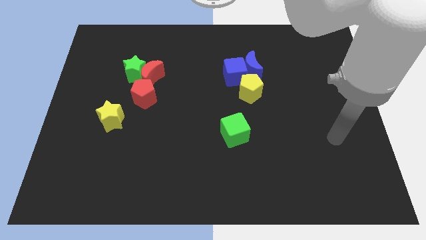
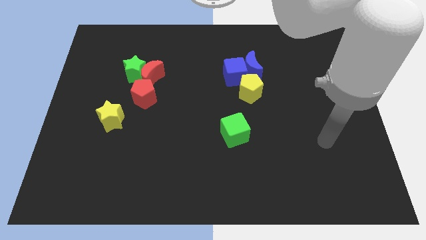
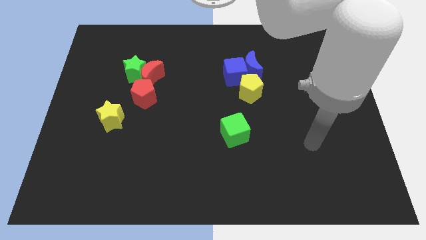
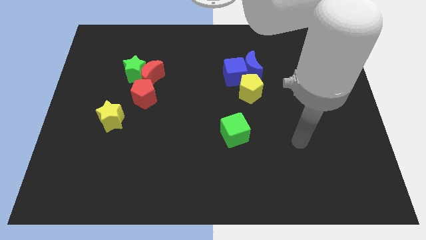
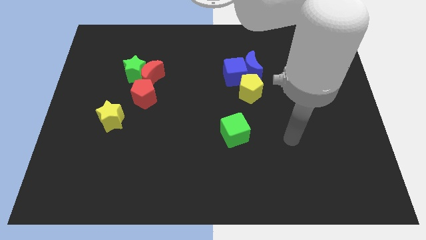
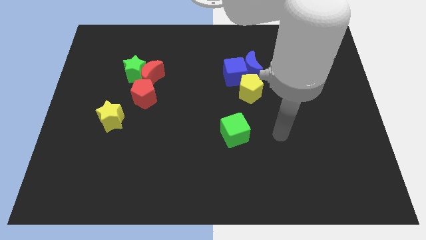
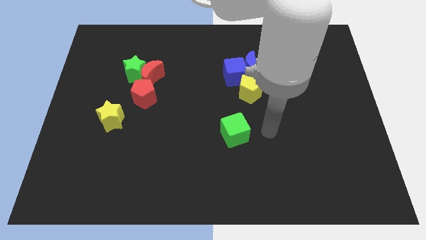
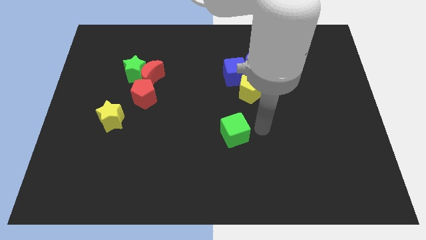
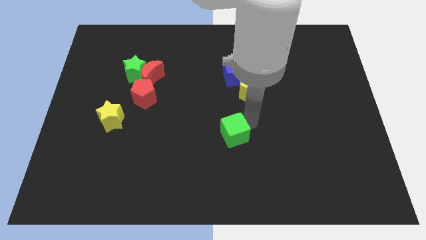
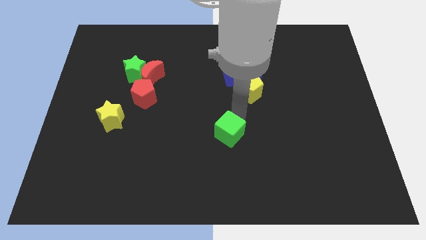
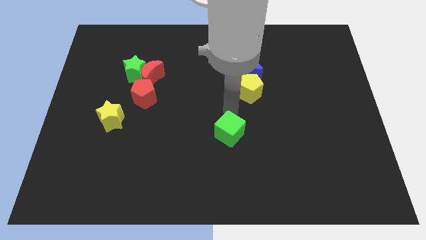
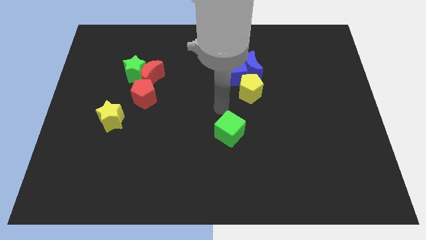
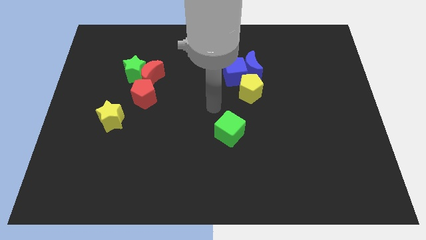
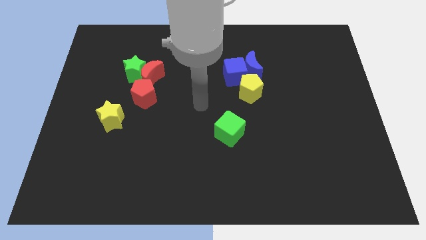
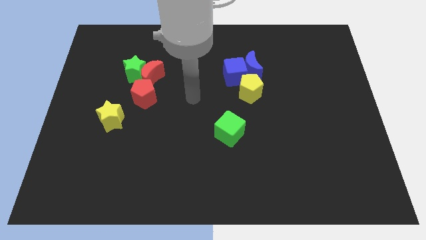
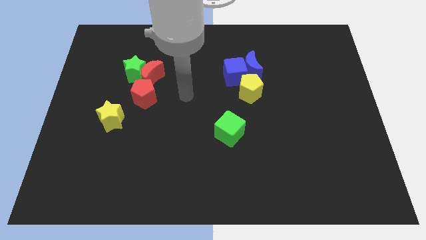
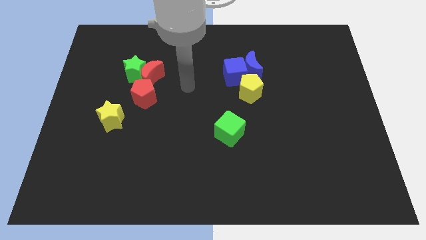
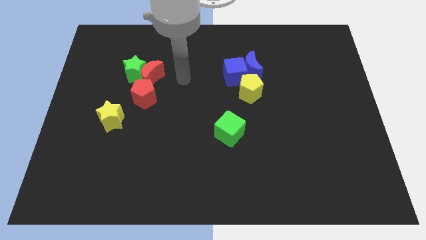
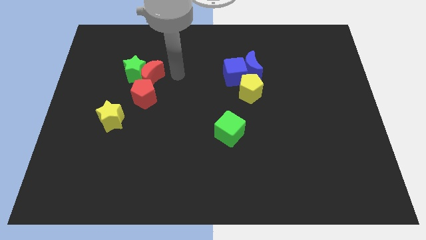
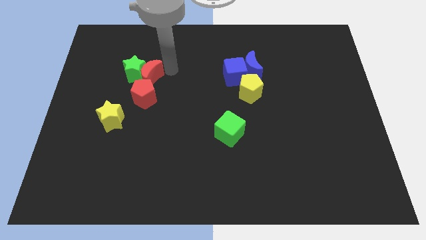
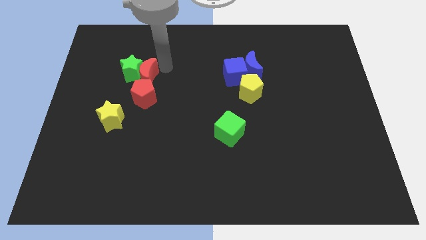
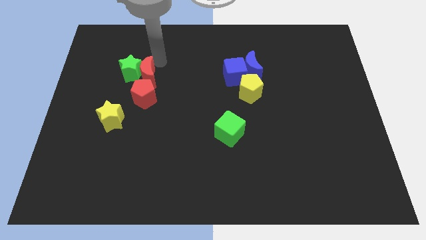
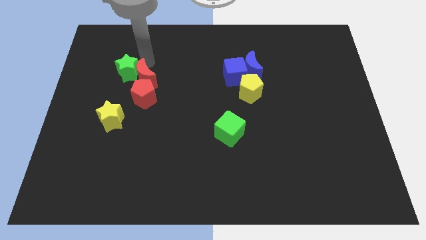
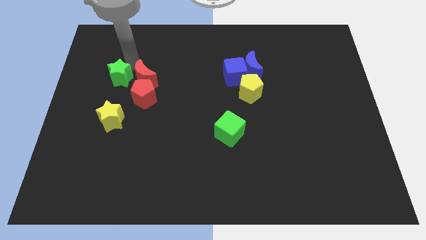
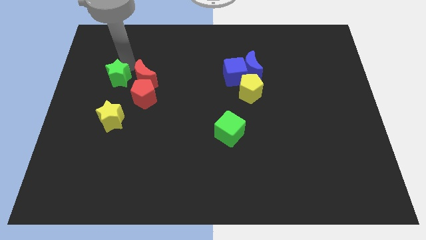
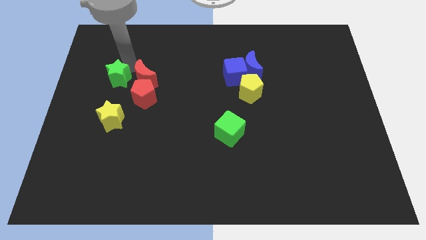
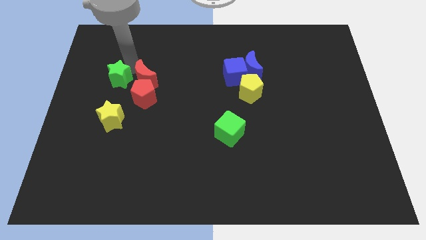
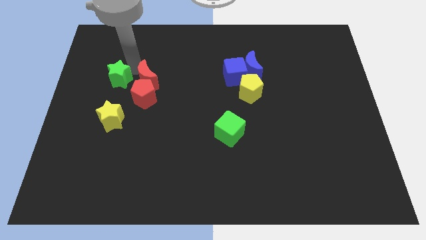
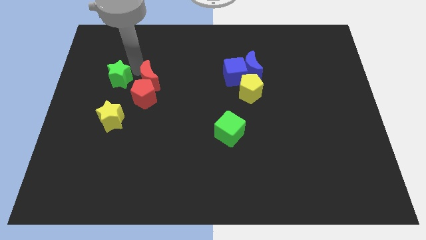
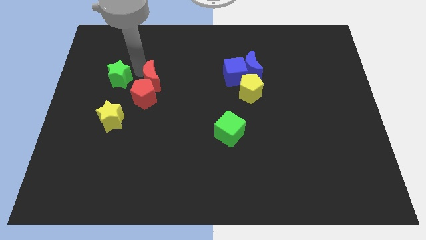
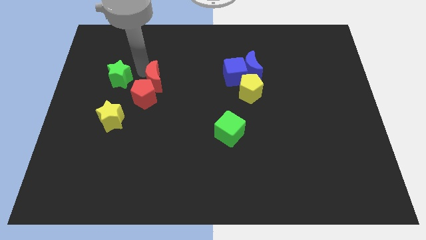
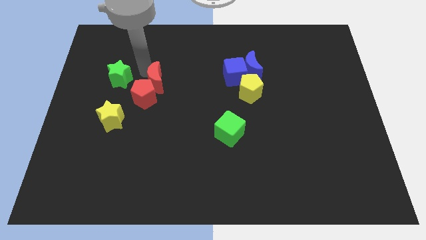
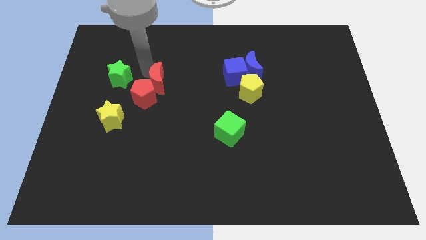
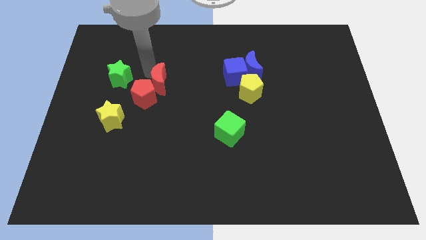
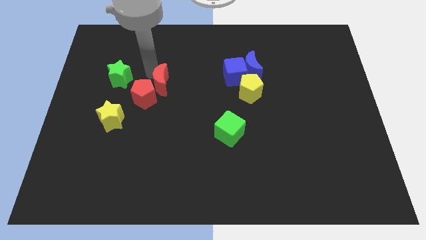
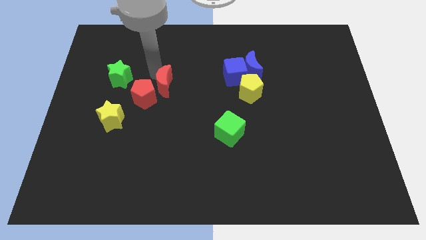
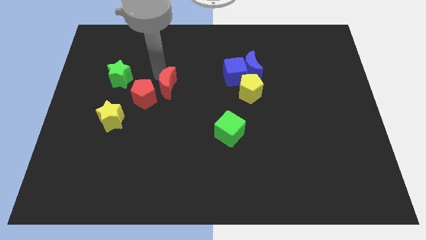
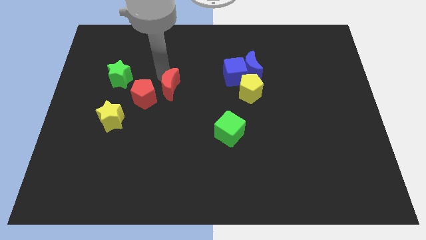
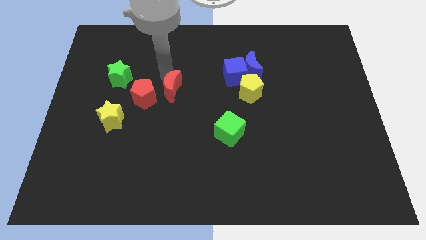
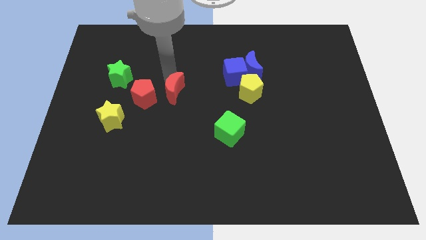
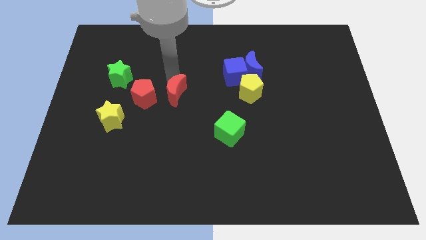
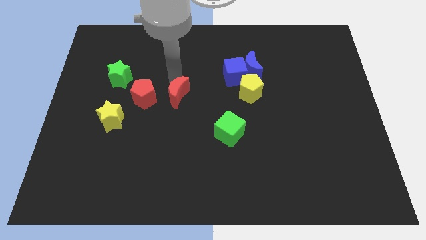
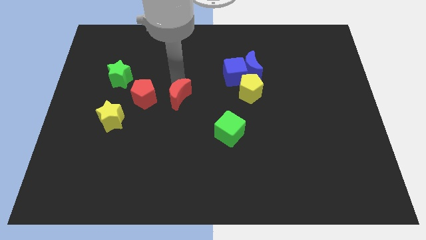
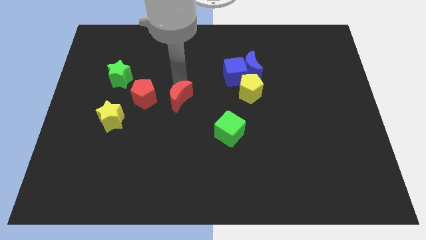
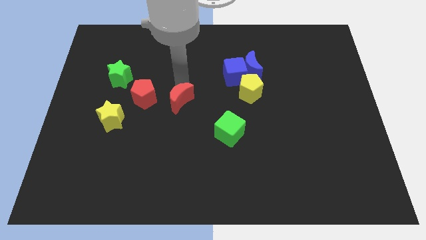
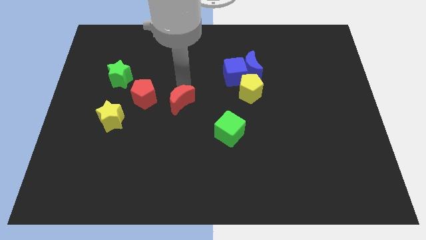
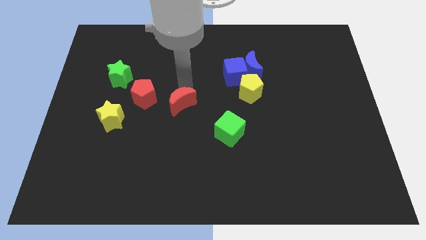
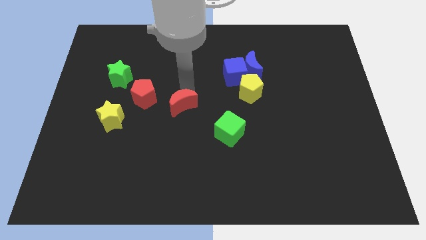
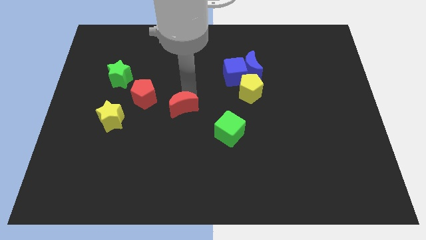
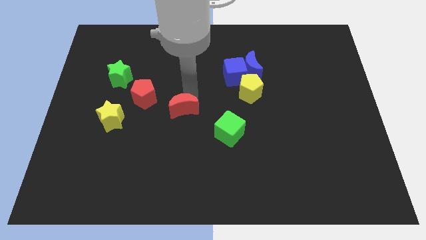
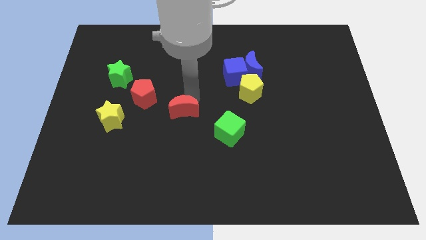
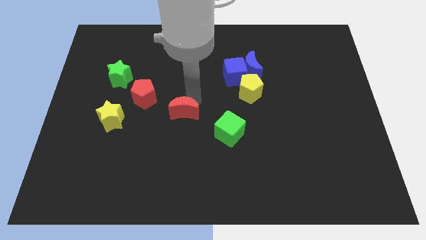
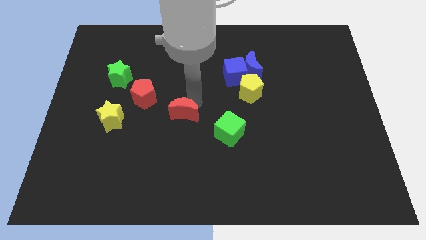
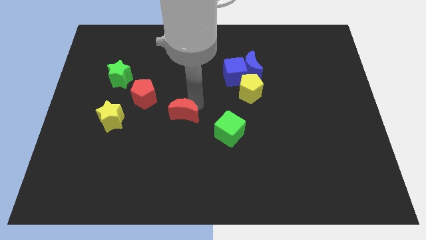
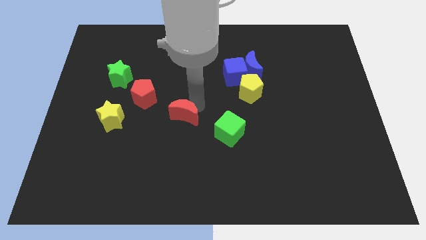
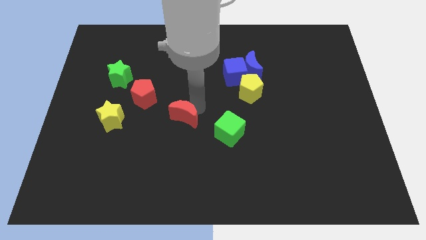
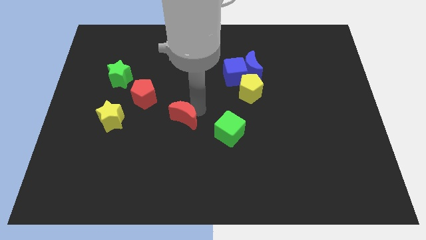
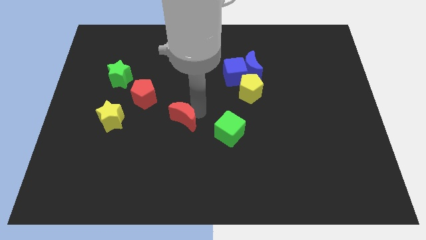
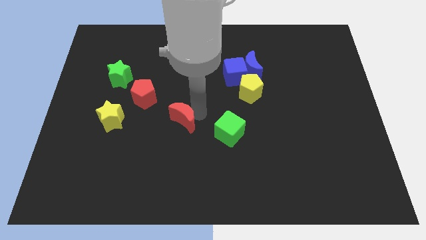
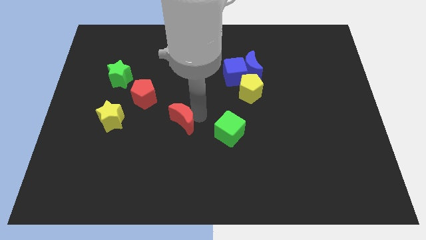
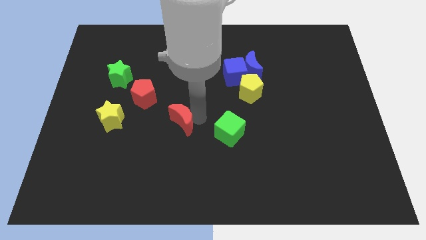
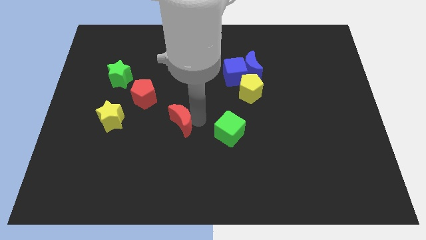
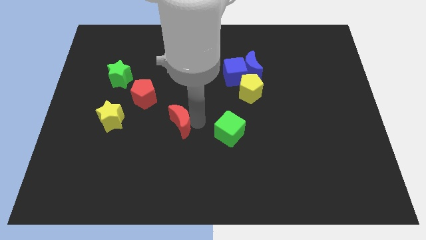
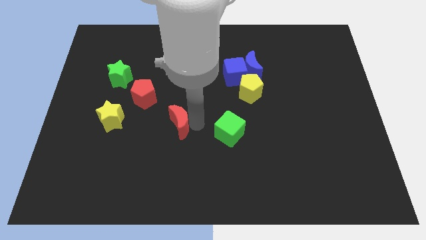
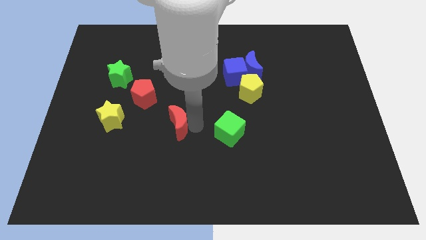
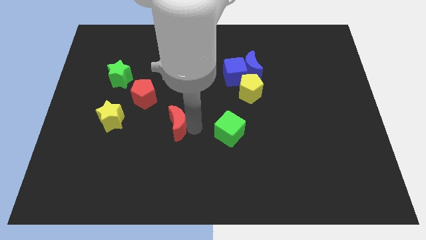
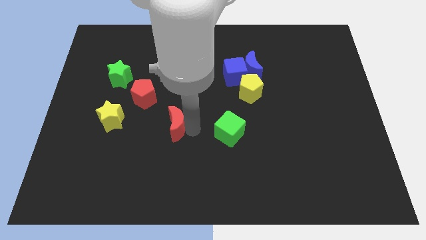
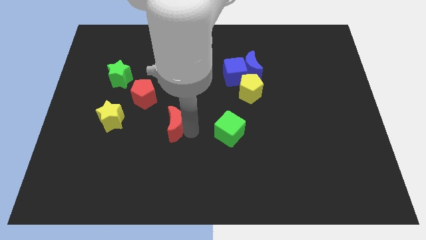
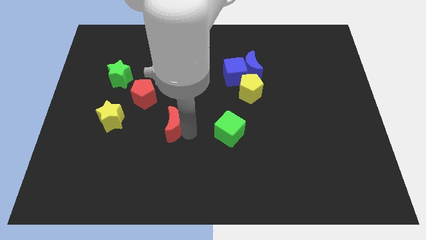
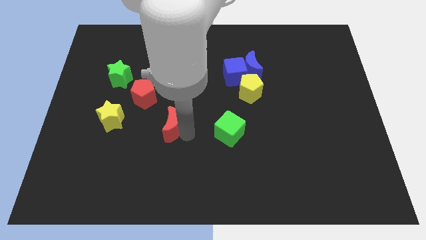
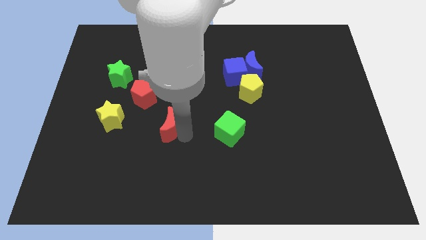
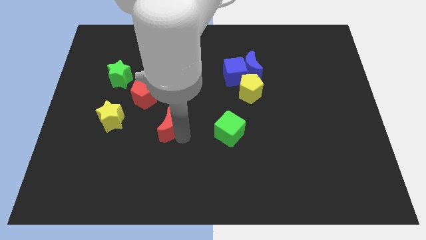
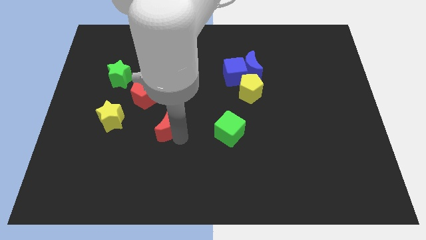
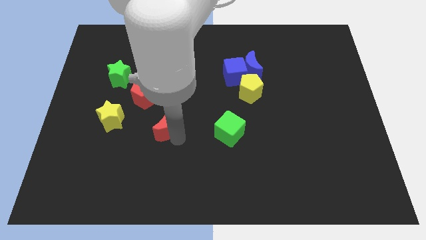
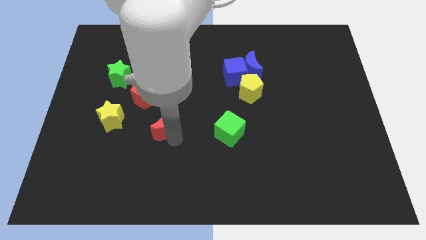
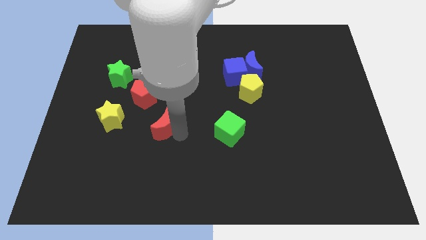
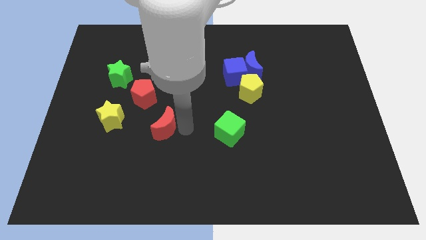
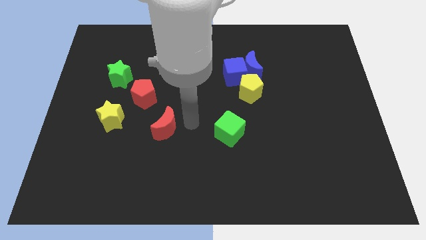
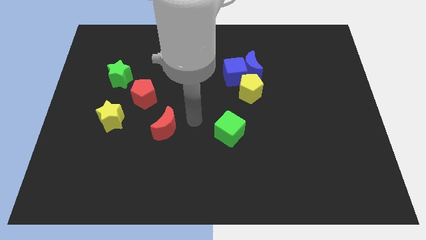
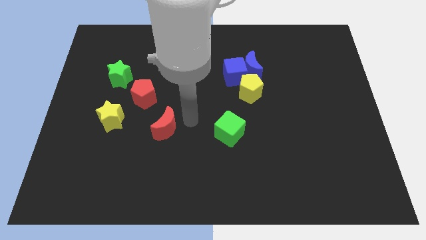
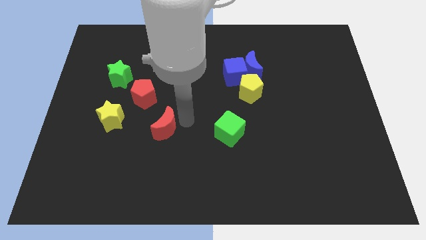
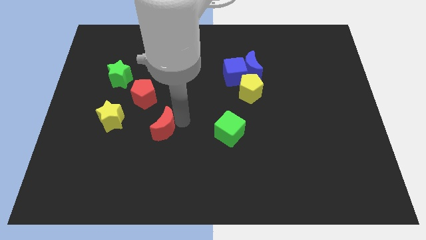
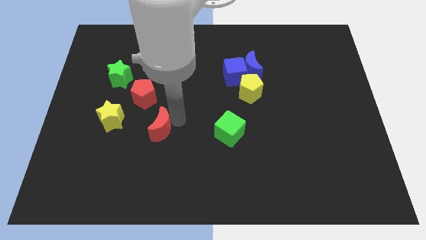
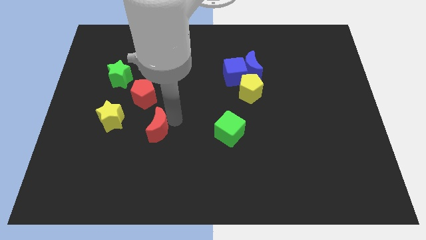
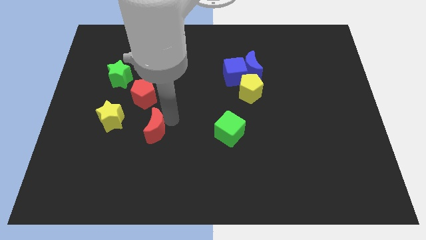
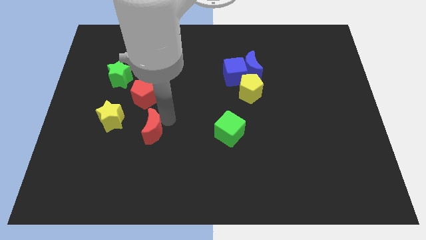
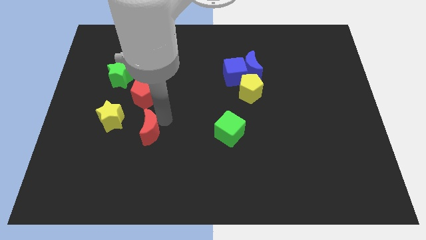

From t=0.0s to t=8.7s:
put the red moon diagonally down and to the right of the yellow star
